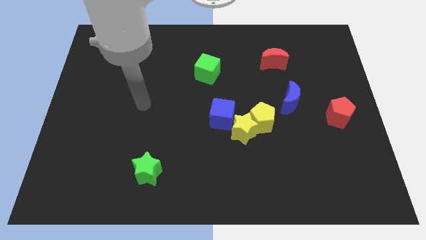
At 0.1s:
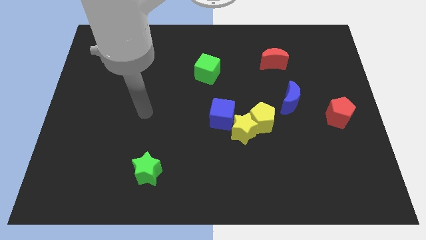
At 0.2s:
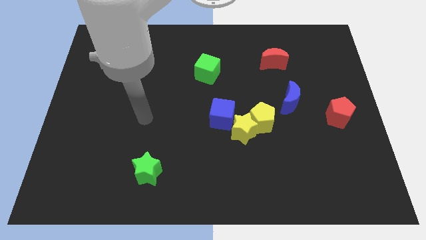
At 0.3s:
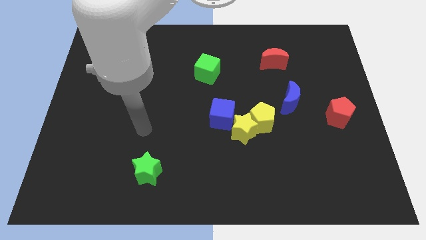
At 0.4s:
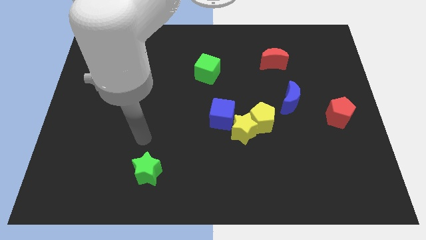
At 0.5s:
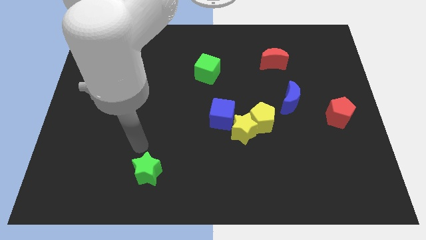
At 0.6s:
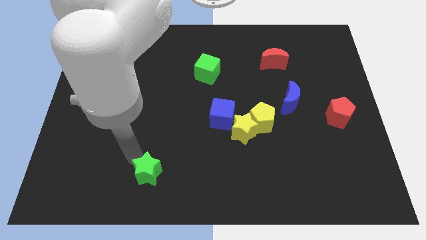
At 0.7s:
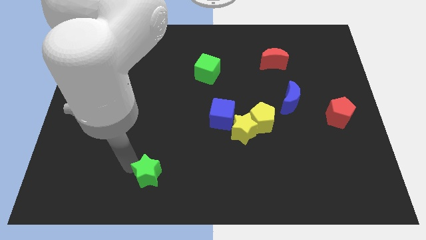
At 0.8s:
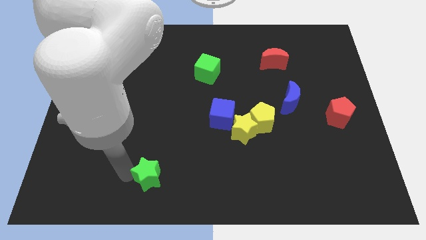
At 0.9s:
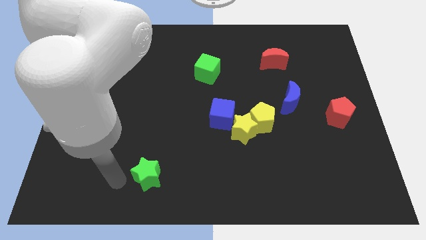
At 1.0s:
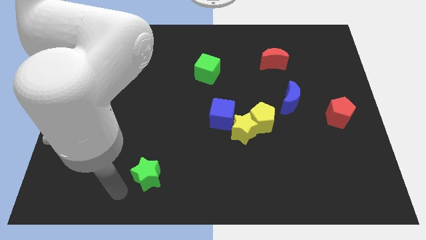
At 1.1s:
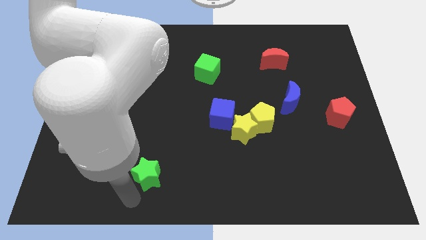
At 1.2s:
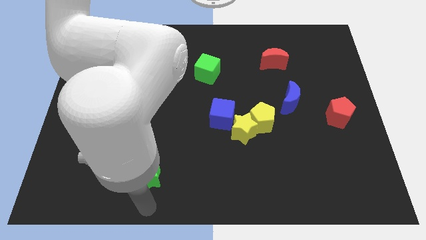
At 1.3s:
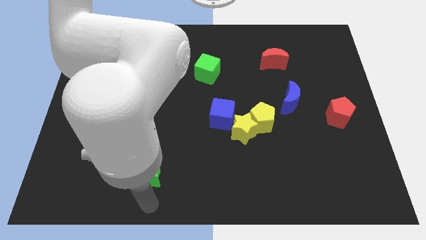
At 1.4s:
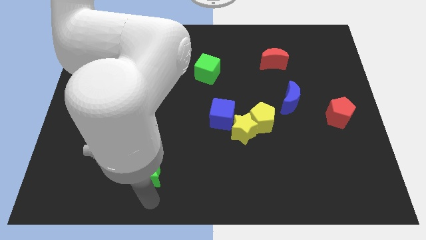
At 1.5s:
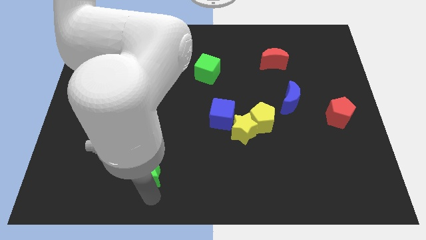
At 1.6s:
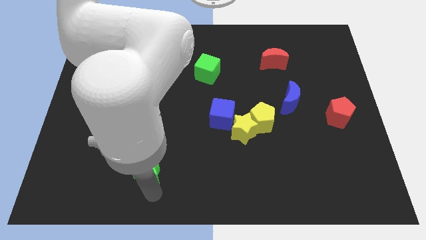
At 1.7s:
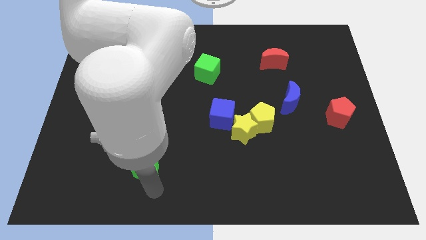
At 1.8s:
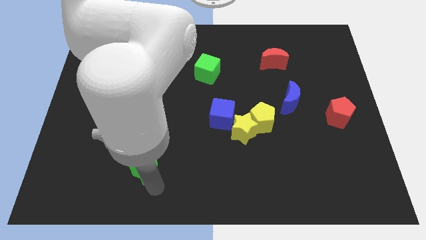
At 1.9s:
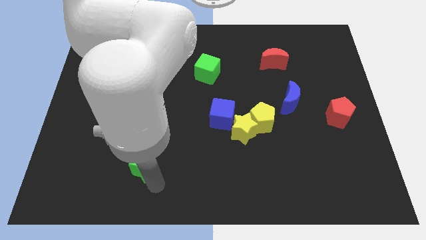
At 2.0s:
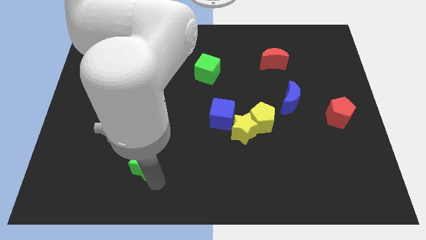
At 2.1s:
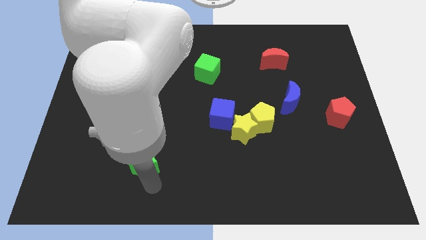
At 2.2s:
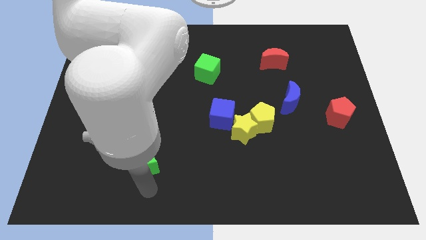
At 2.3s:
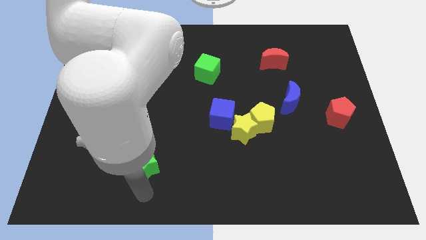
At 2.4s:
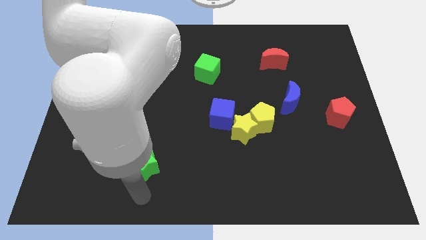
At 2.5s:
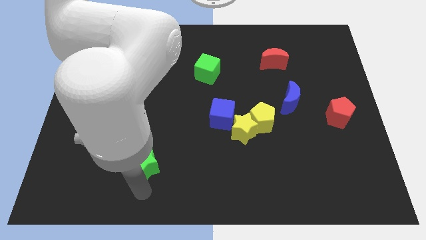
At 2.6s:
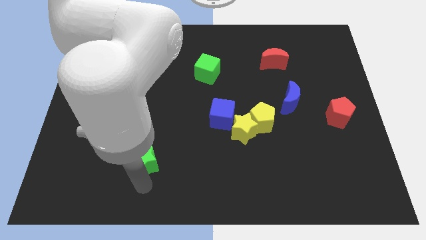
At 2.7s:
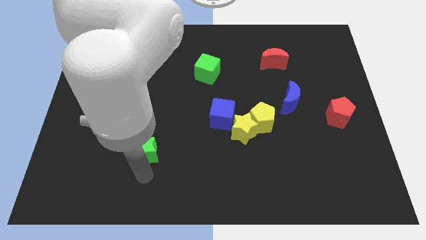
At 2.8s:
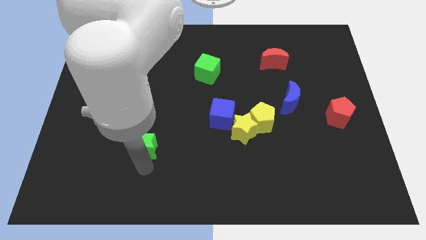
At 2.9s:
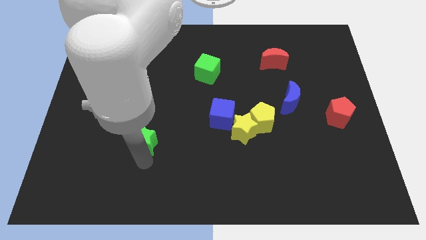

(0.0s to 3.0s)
move the green star a little bit up

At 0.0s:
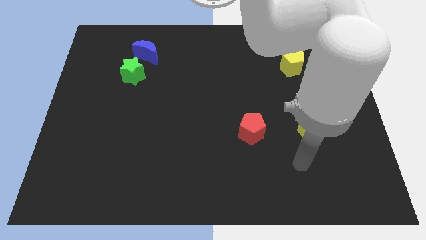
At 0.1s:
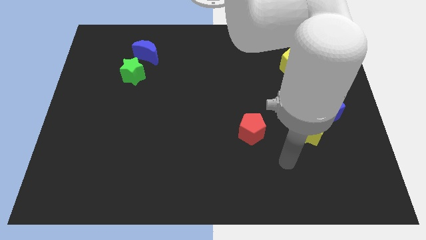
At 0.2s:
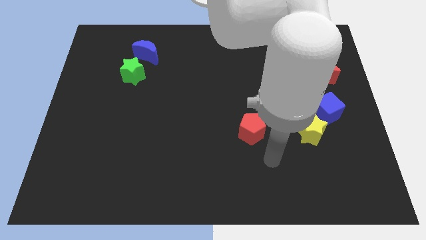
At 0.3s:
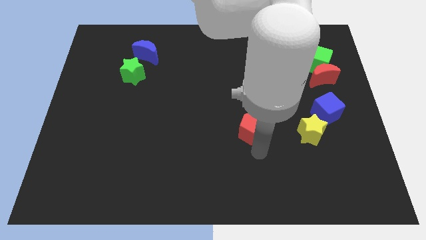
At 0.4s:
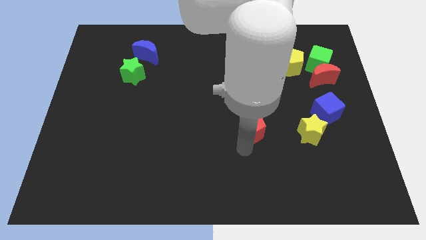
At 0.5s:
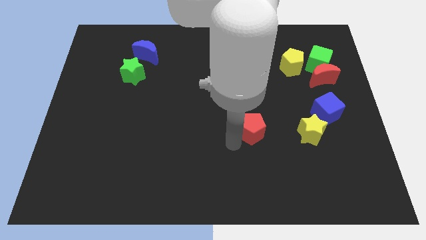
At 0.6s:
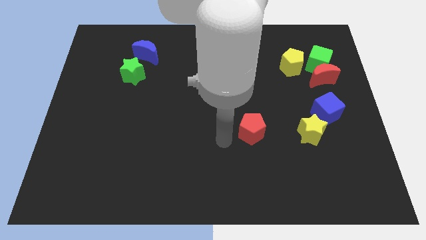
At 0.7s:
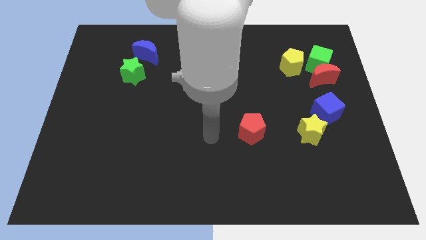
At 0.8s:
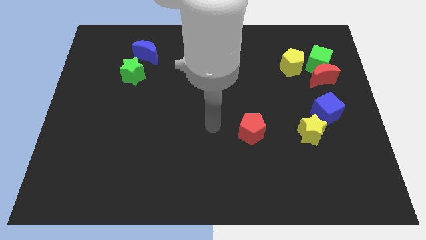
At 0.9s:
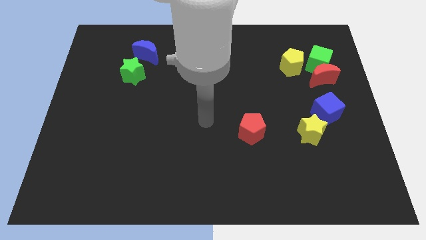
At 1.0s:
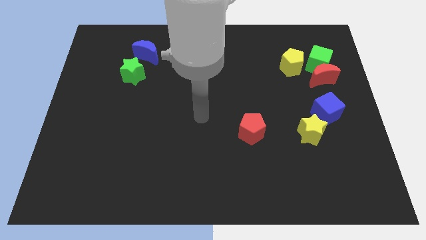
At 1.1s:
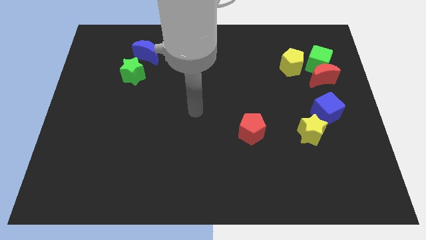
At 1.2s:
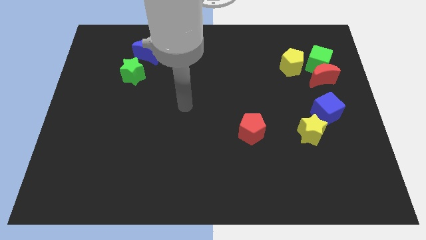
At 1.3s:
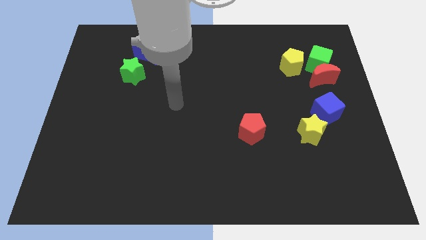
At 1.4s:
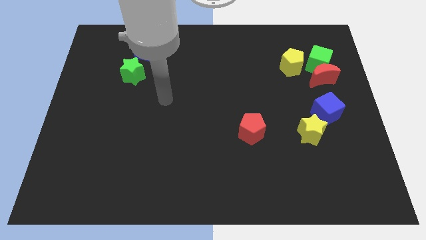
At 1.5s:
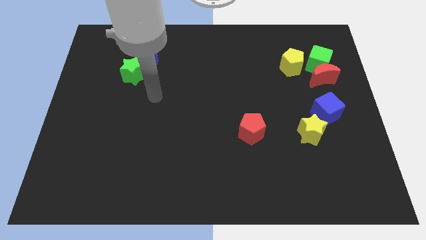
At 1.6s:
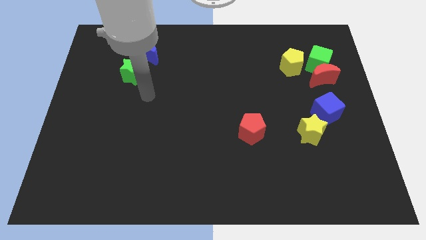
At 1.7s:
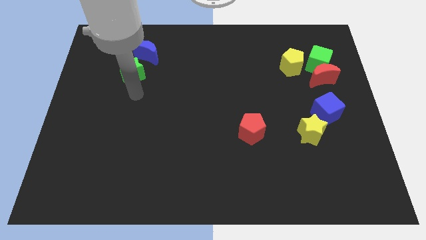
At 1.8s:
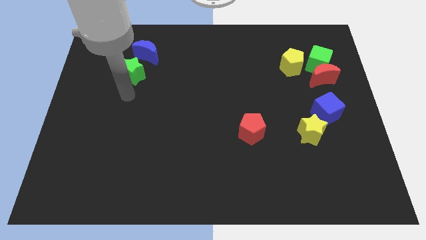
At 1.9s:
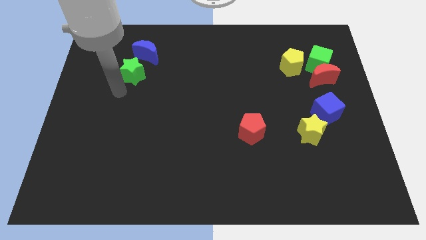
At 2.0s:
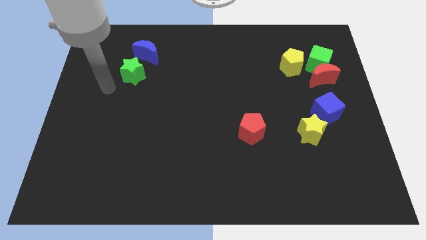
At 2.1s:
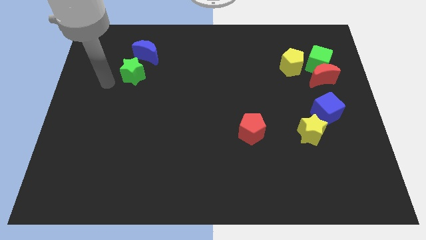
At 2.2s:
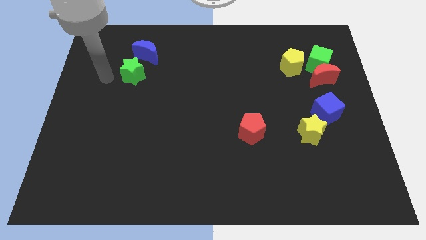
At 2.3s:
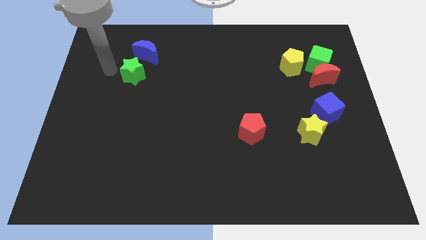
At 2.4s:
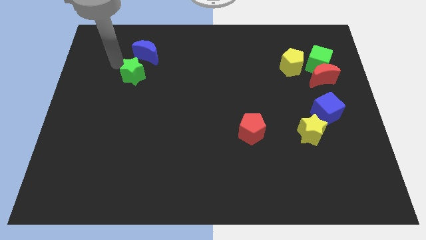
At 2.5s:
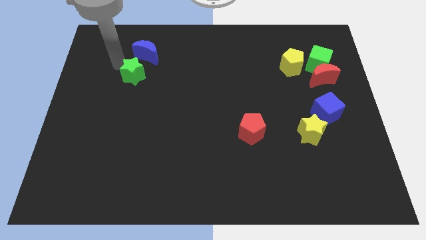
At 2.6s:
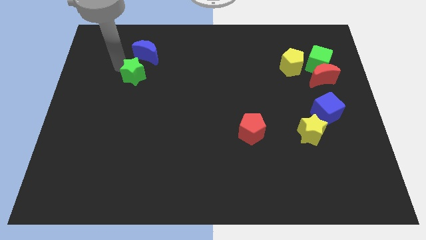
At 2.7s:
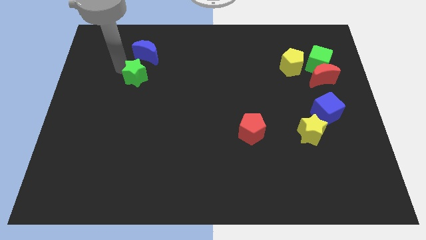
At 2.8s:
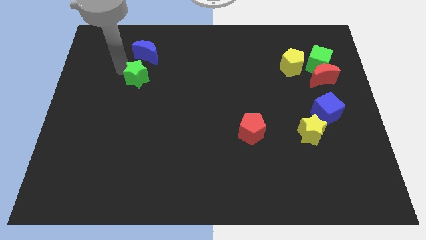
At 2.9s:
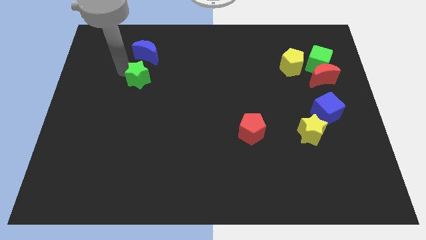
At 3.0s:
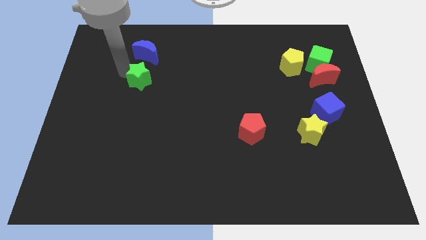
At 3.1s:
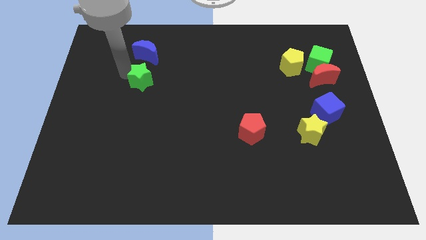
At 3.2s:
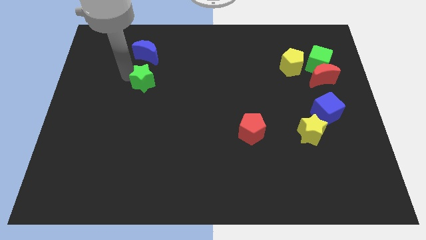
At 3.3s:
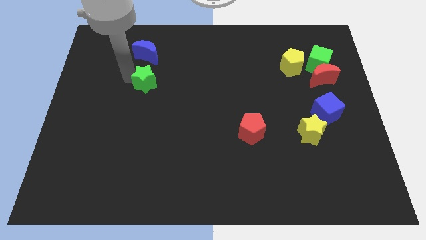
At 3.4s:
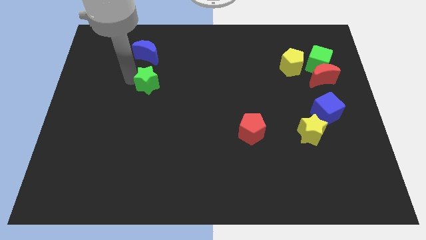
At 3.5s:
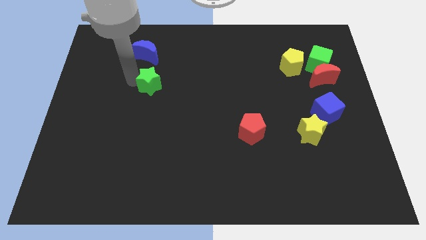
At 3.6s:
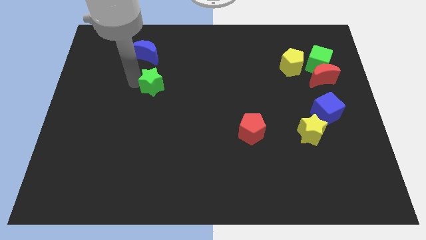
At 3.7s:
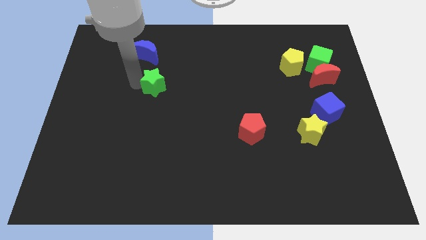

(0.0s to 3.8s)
slightly push the green star downwards and then to the right

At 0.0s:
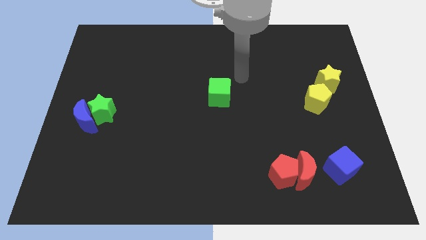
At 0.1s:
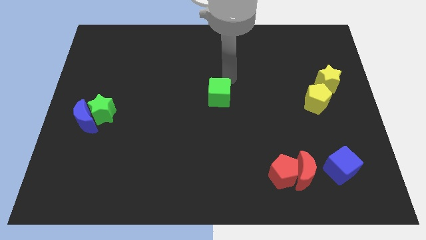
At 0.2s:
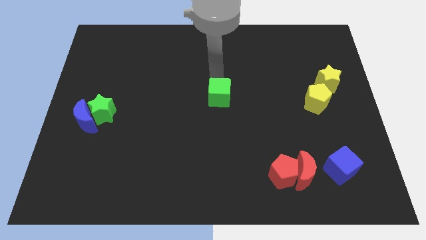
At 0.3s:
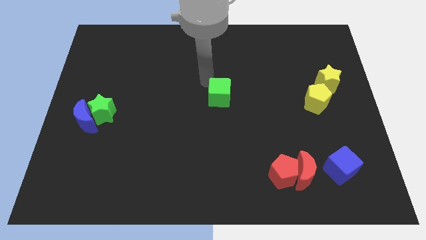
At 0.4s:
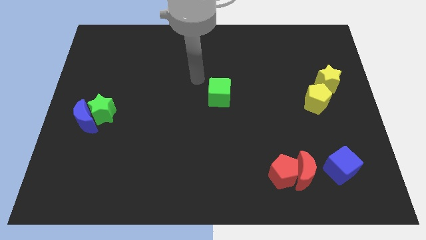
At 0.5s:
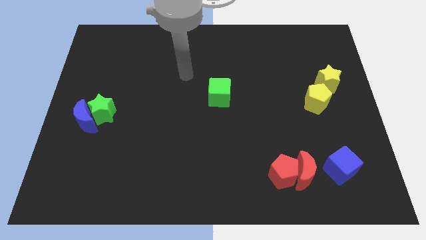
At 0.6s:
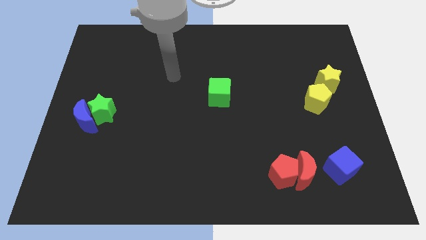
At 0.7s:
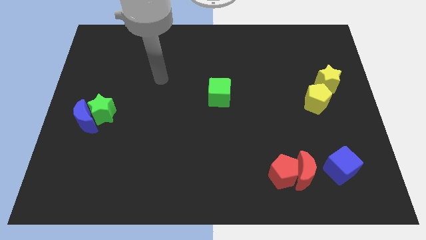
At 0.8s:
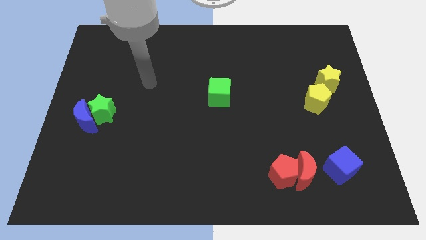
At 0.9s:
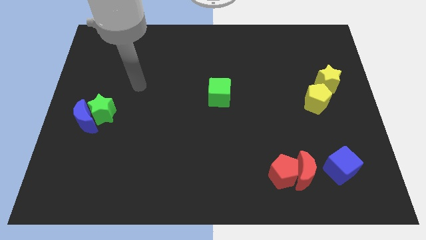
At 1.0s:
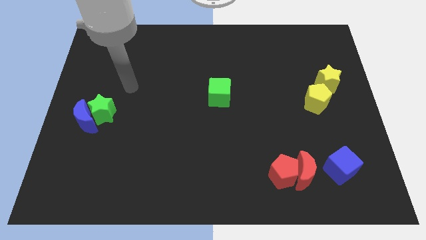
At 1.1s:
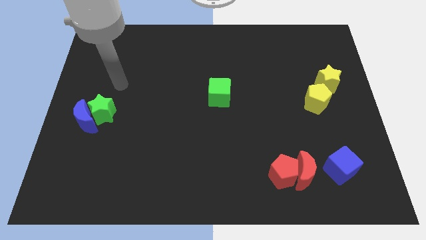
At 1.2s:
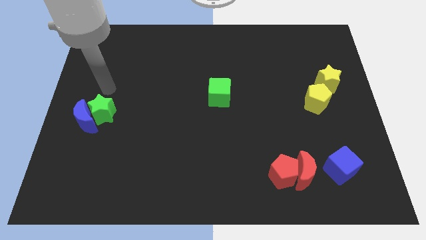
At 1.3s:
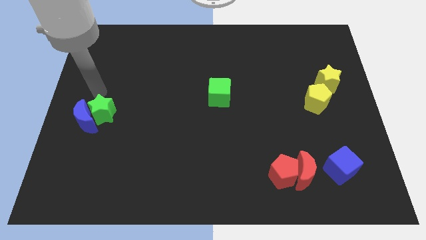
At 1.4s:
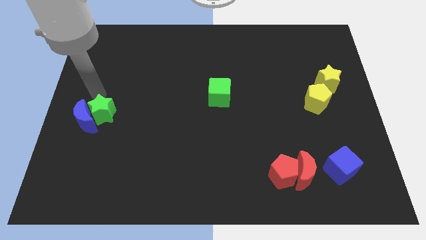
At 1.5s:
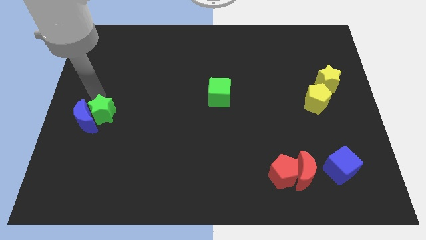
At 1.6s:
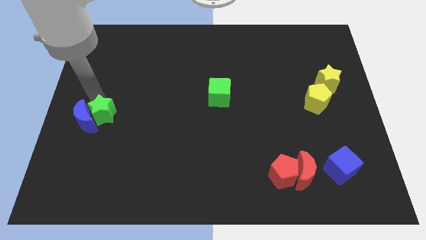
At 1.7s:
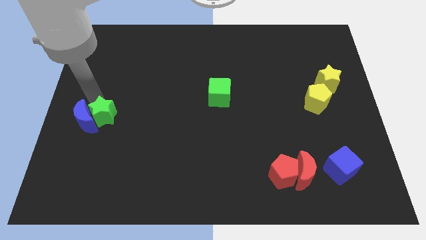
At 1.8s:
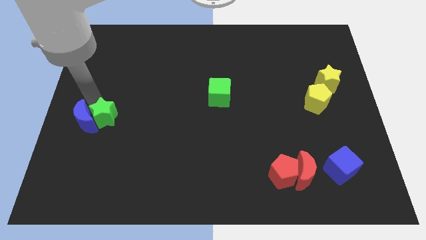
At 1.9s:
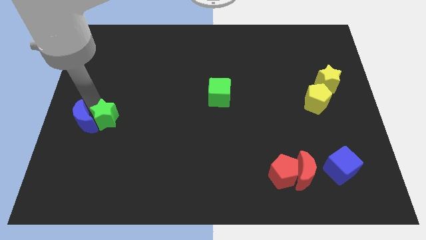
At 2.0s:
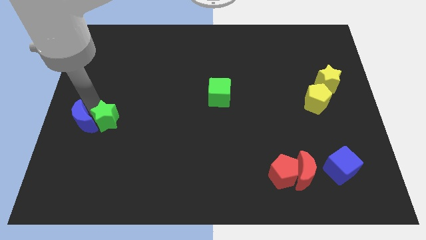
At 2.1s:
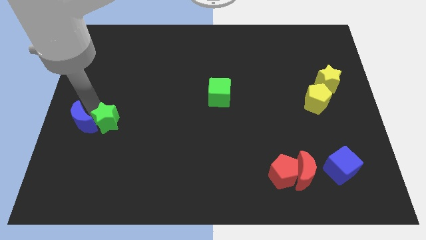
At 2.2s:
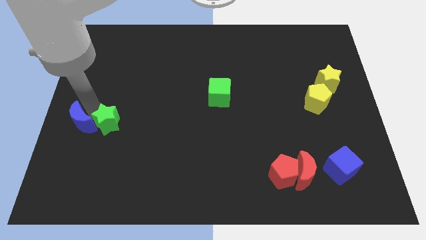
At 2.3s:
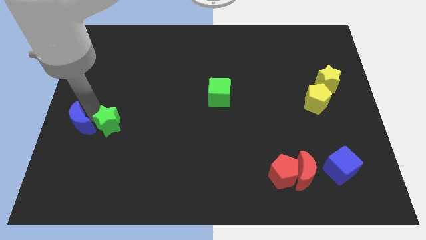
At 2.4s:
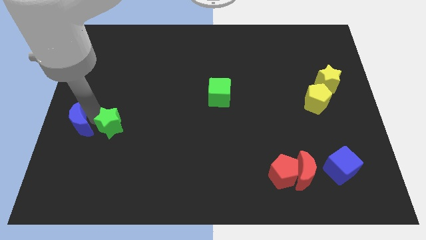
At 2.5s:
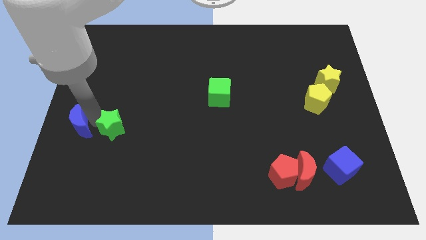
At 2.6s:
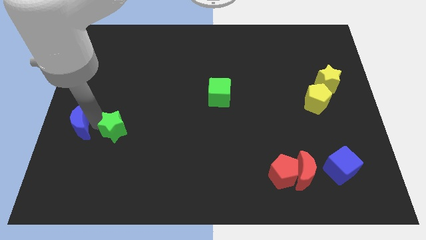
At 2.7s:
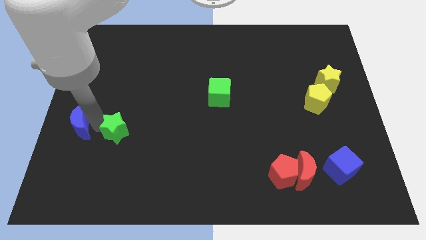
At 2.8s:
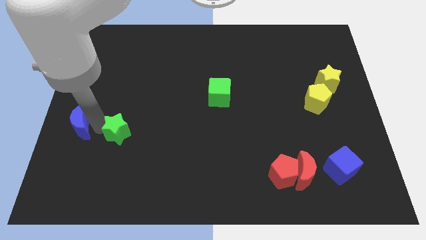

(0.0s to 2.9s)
slide the green star downwards and right diagonally somewhat
